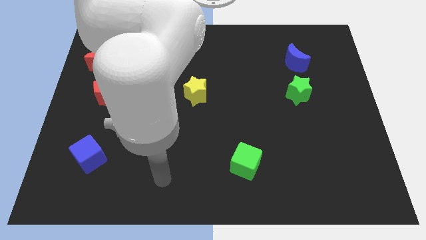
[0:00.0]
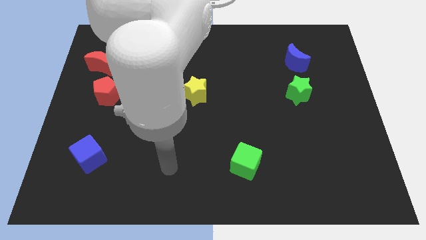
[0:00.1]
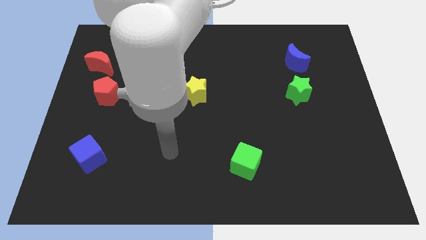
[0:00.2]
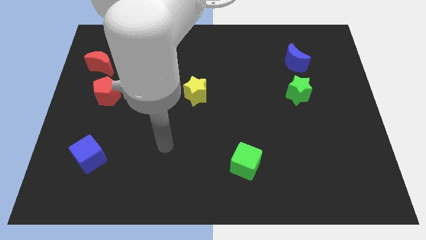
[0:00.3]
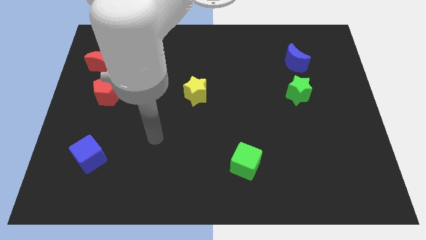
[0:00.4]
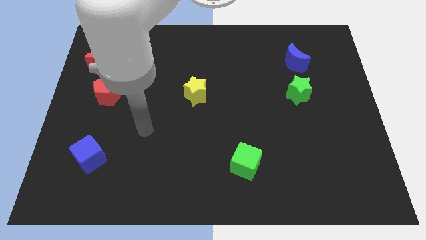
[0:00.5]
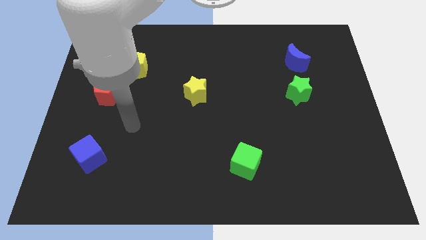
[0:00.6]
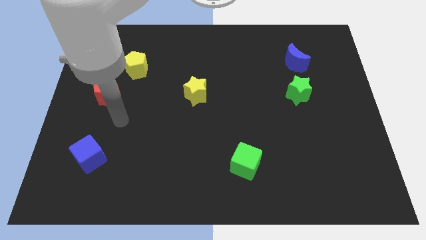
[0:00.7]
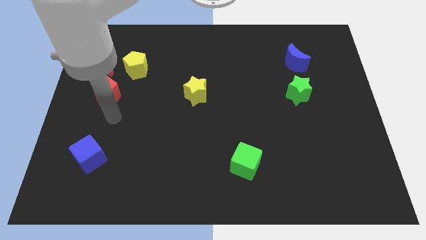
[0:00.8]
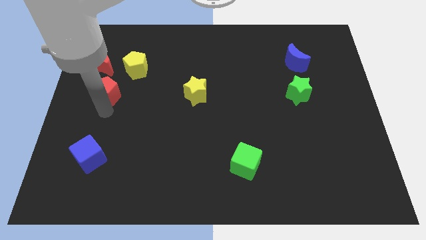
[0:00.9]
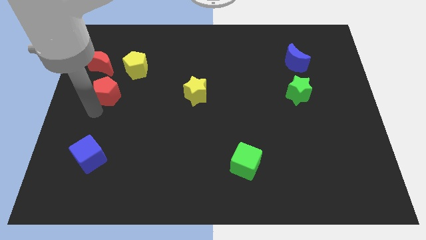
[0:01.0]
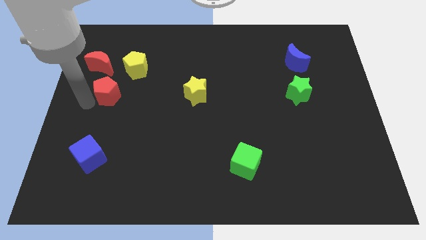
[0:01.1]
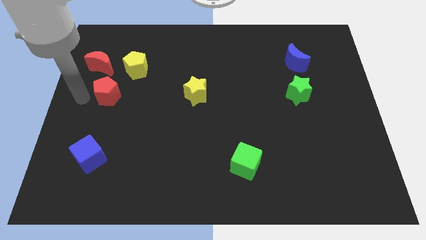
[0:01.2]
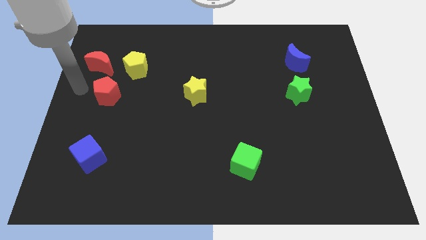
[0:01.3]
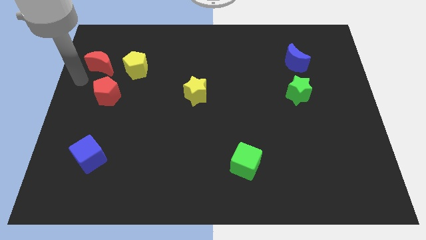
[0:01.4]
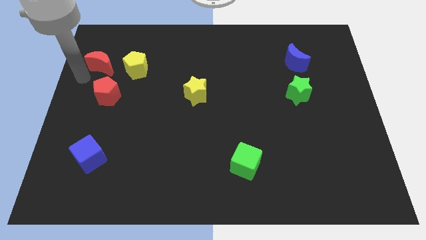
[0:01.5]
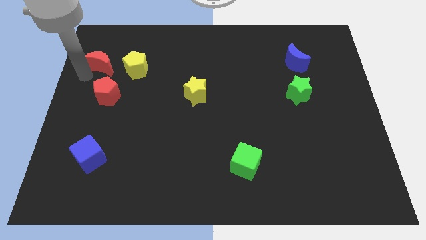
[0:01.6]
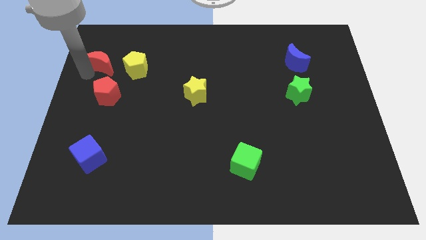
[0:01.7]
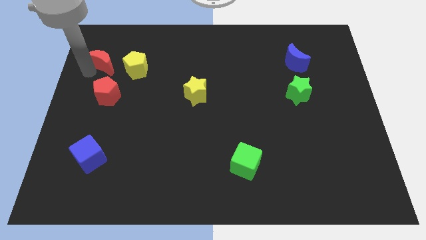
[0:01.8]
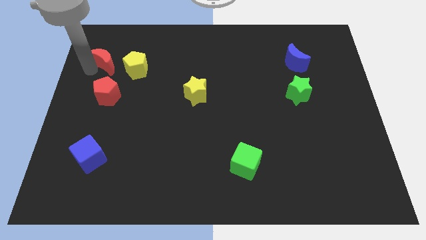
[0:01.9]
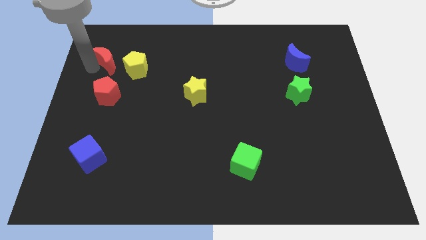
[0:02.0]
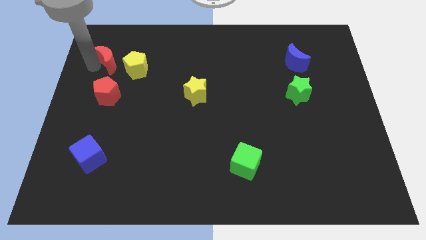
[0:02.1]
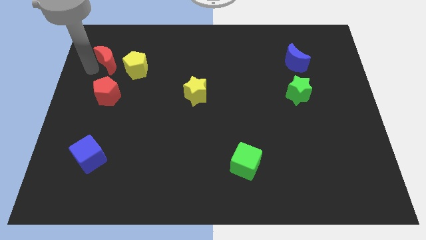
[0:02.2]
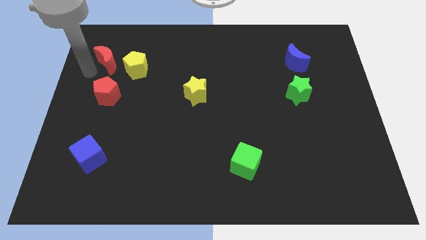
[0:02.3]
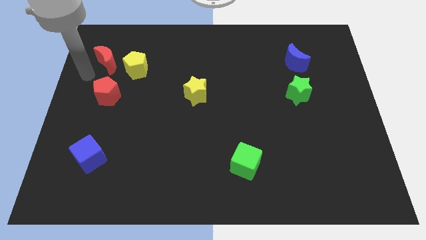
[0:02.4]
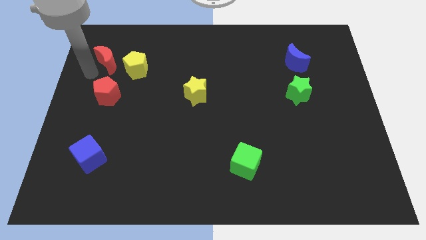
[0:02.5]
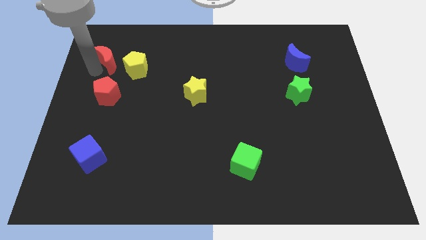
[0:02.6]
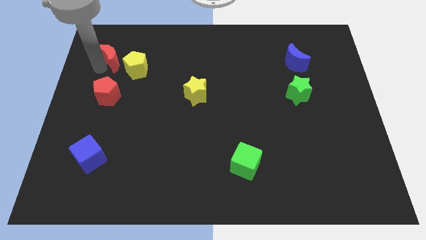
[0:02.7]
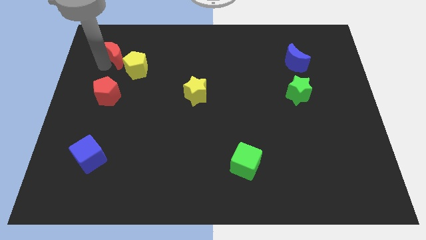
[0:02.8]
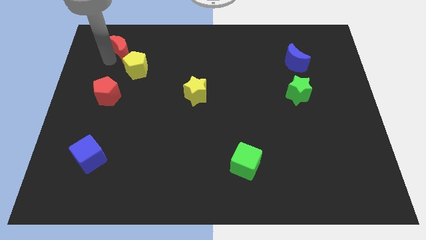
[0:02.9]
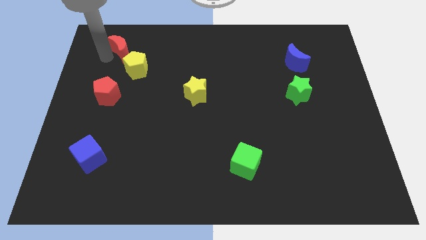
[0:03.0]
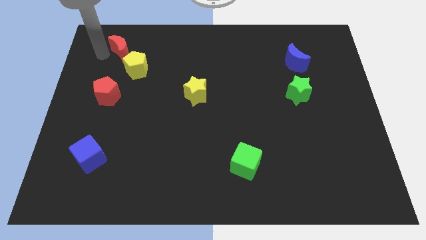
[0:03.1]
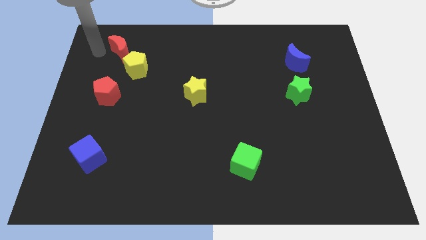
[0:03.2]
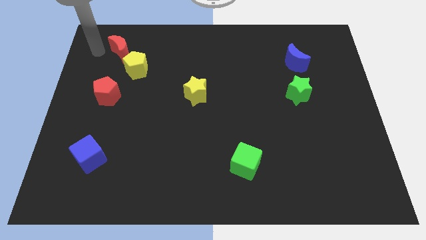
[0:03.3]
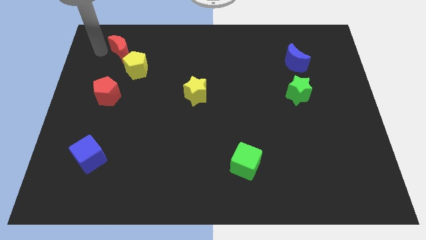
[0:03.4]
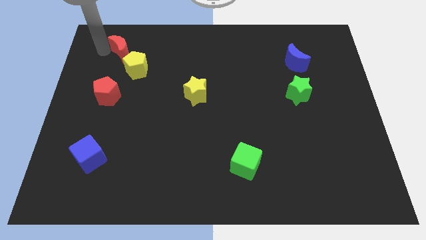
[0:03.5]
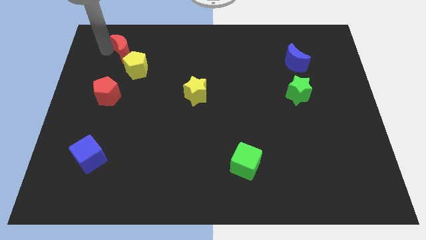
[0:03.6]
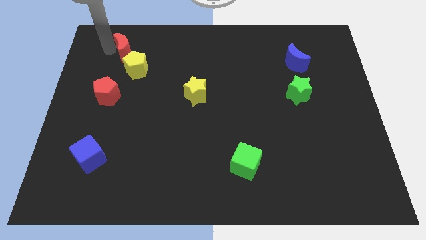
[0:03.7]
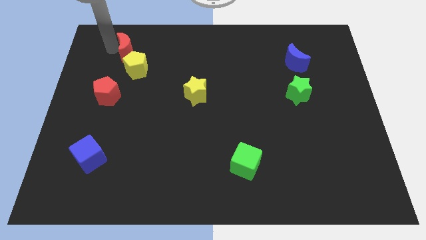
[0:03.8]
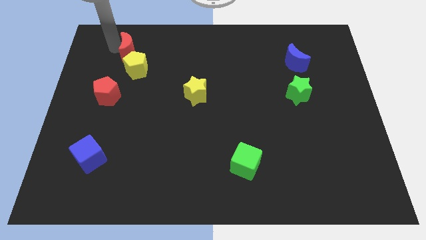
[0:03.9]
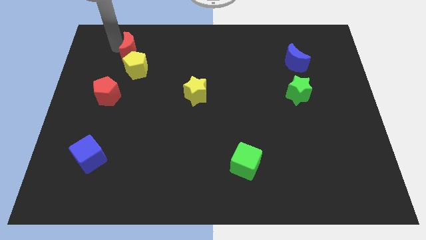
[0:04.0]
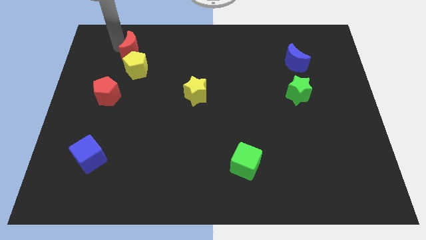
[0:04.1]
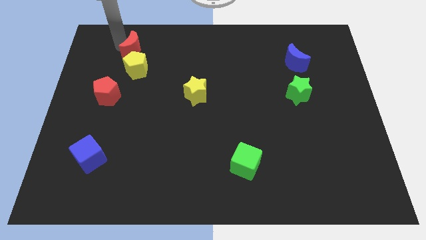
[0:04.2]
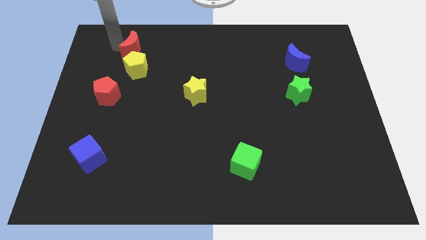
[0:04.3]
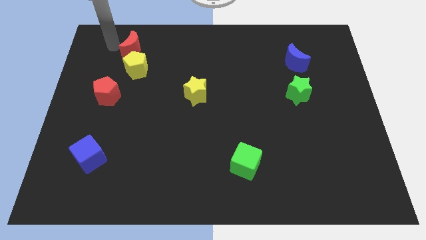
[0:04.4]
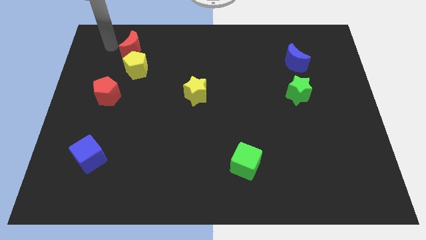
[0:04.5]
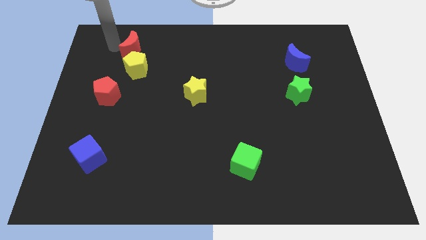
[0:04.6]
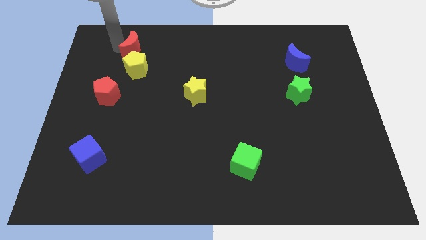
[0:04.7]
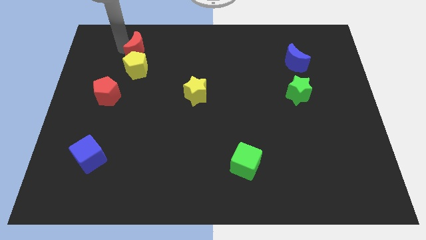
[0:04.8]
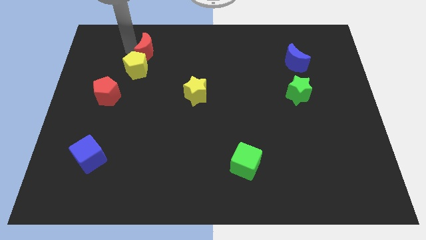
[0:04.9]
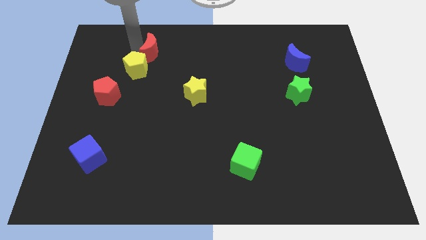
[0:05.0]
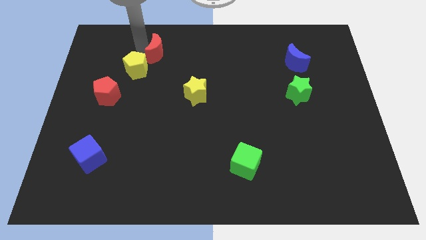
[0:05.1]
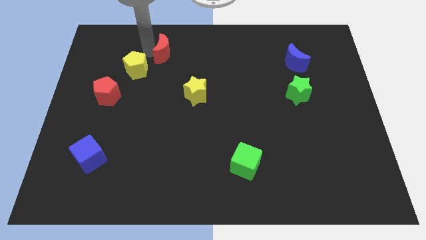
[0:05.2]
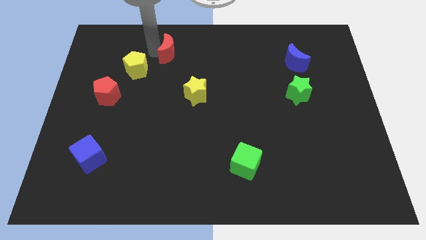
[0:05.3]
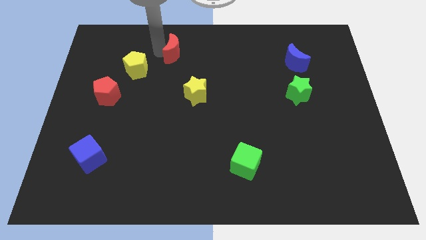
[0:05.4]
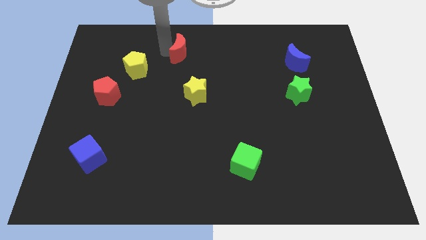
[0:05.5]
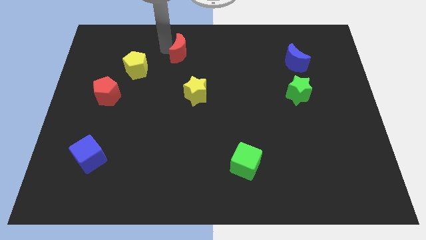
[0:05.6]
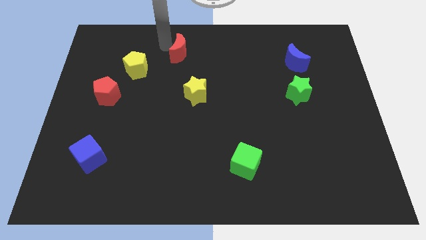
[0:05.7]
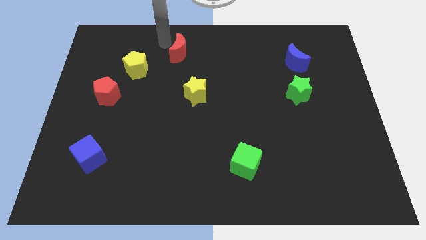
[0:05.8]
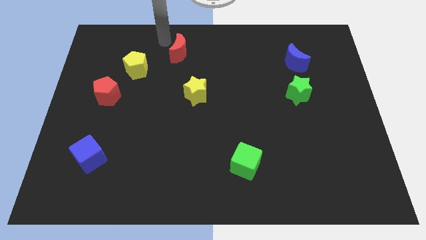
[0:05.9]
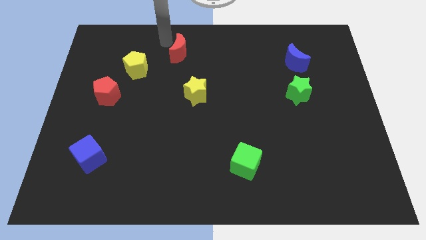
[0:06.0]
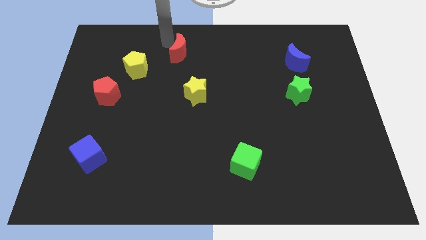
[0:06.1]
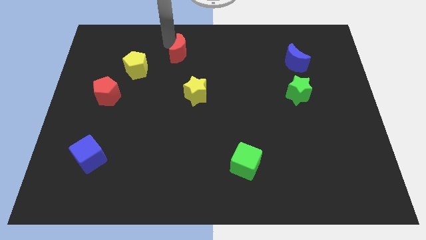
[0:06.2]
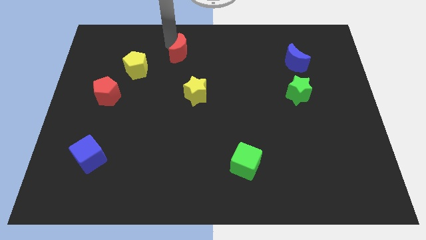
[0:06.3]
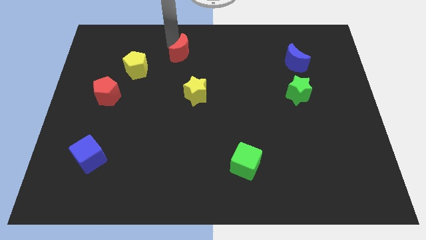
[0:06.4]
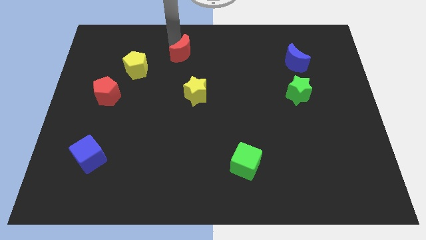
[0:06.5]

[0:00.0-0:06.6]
push the red moon to the right

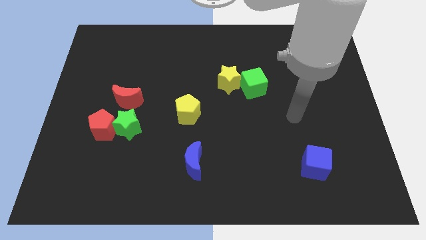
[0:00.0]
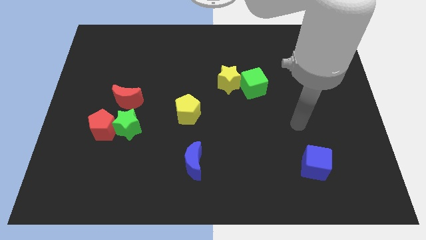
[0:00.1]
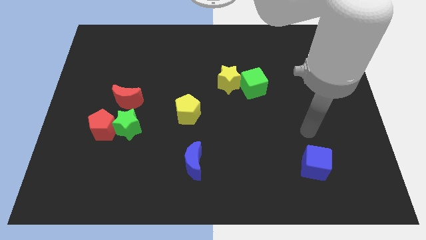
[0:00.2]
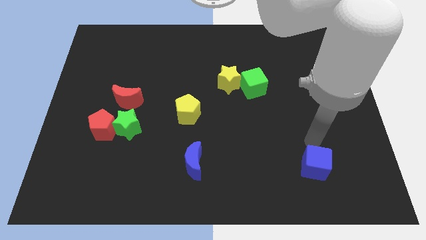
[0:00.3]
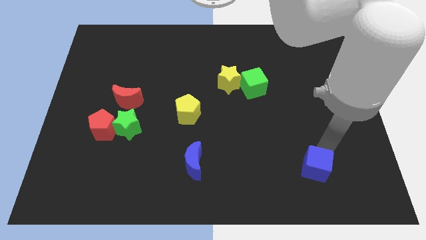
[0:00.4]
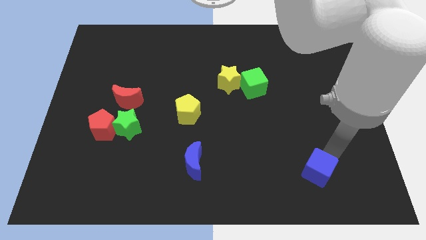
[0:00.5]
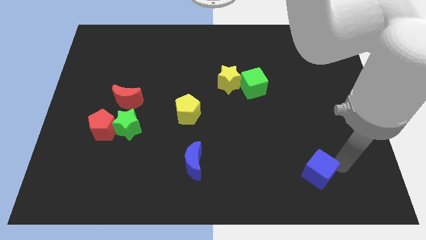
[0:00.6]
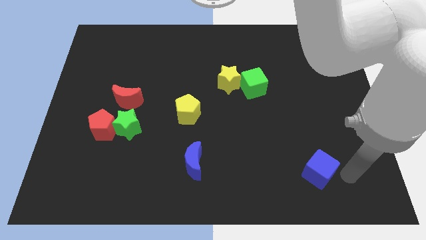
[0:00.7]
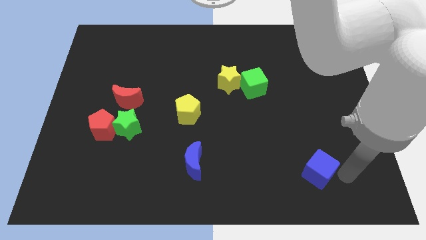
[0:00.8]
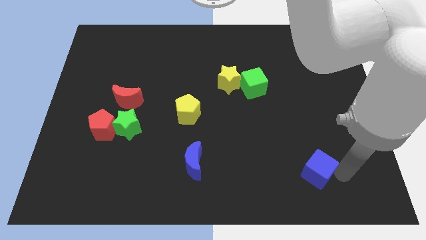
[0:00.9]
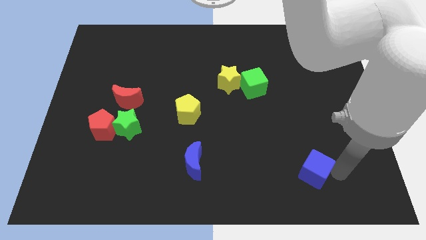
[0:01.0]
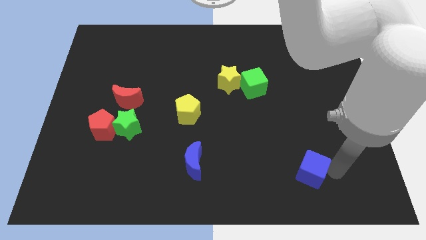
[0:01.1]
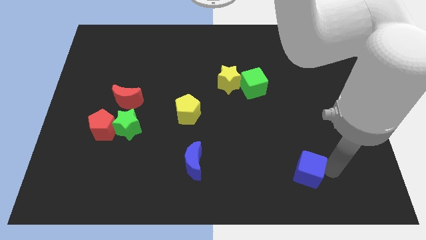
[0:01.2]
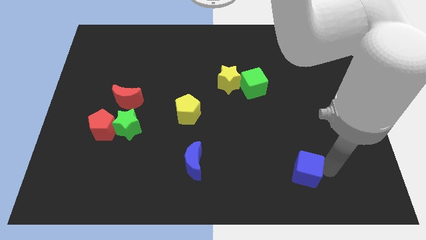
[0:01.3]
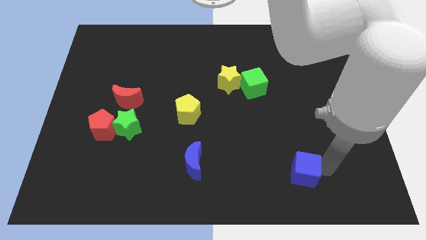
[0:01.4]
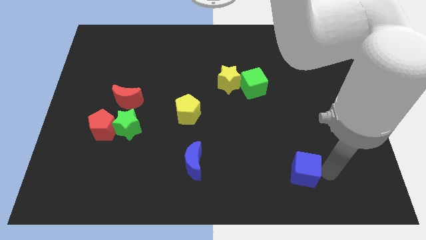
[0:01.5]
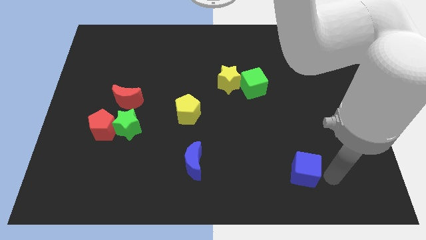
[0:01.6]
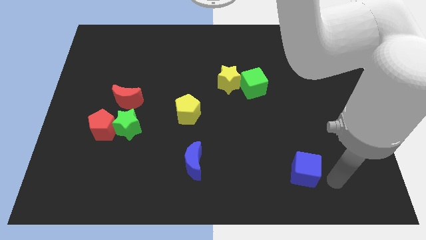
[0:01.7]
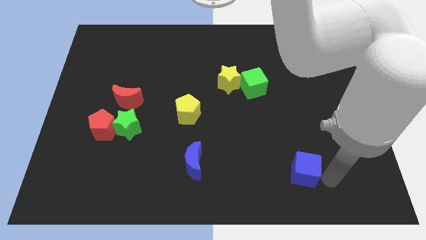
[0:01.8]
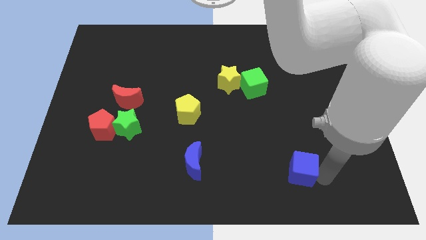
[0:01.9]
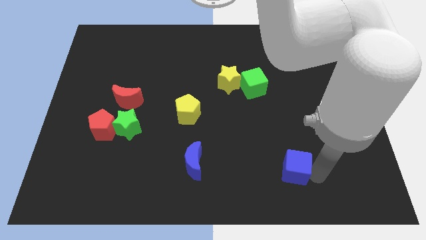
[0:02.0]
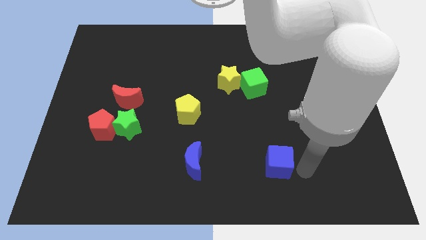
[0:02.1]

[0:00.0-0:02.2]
push the blue cube left slightly
